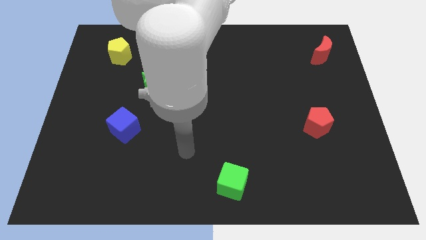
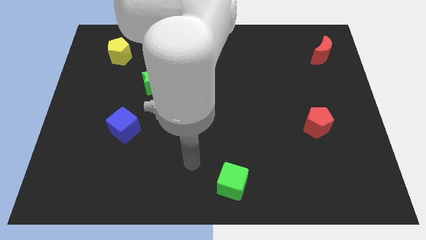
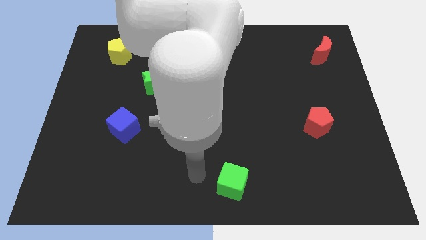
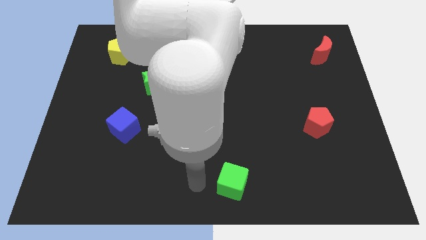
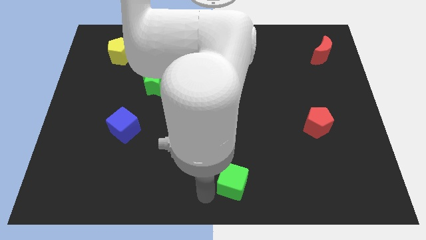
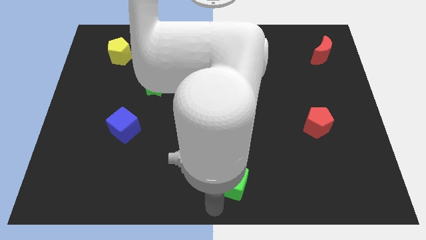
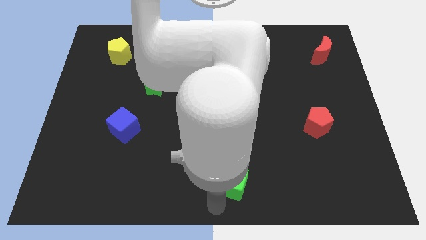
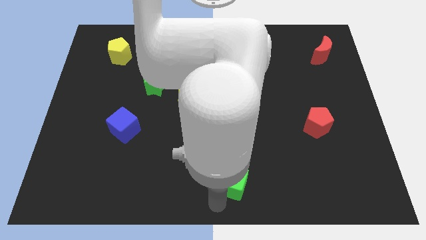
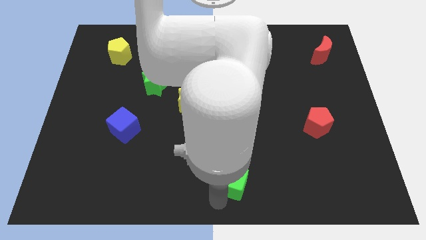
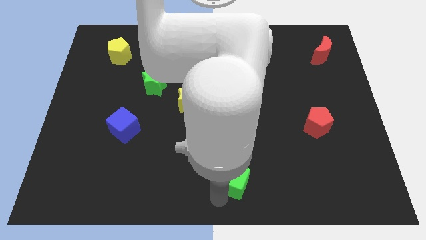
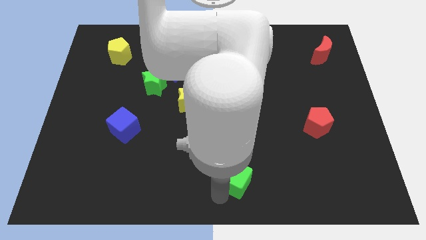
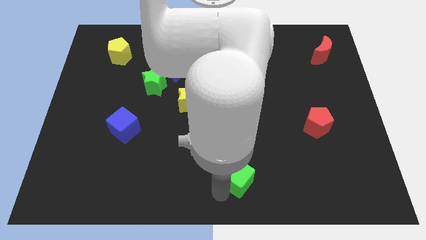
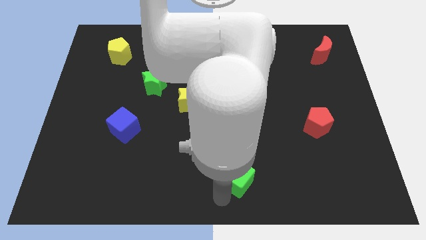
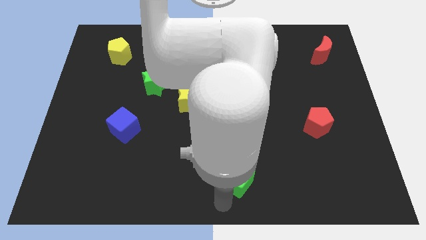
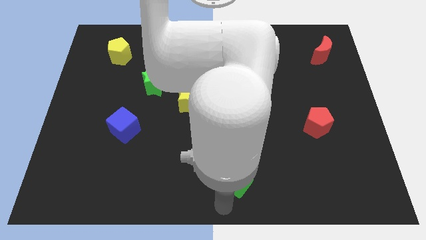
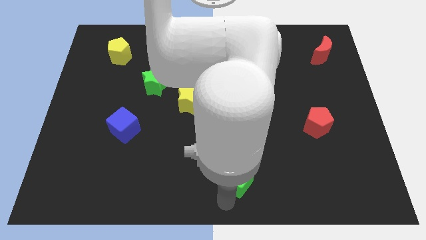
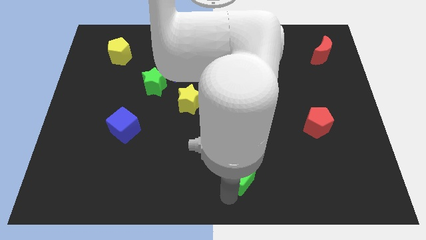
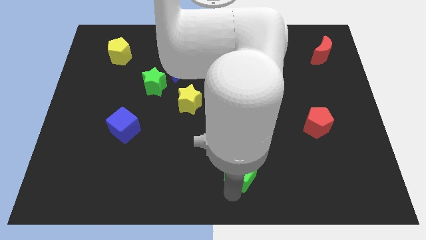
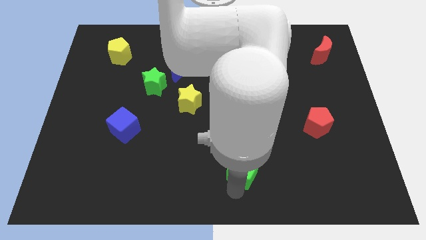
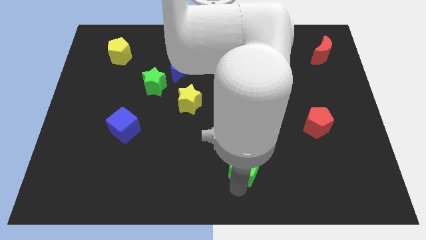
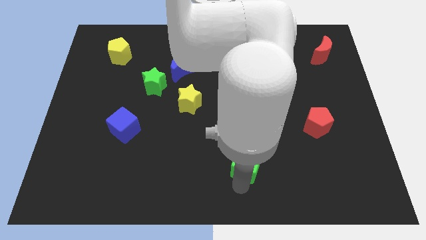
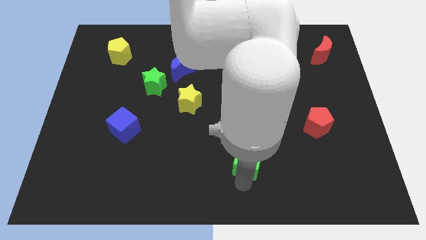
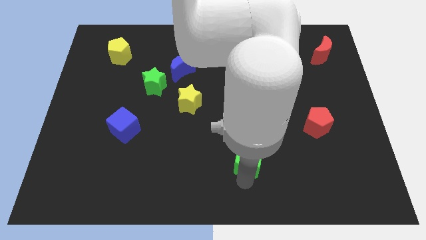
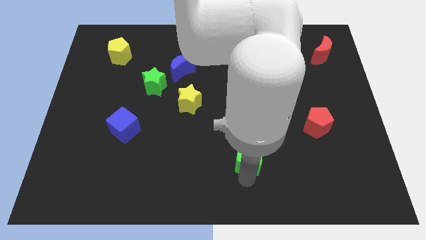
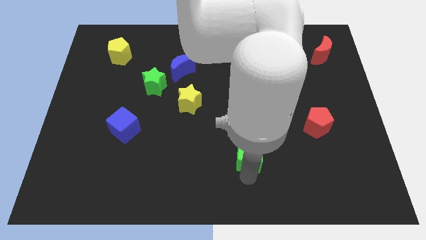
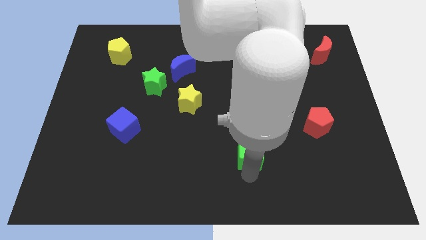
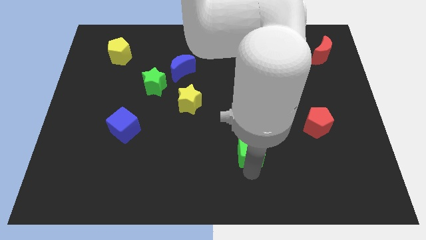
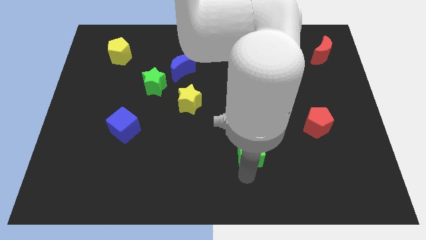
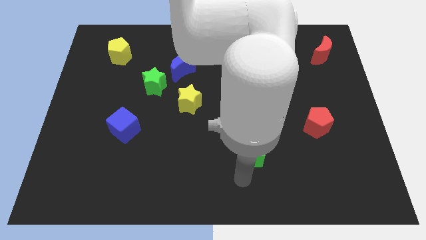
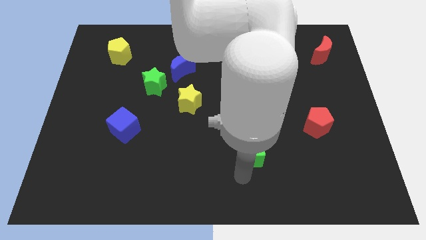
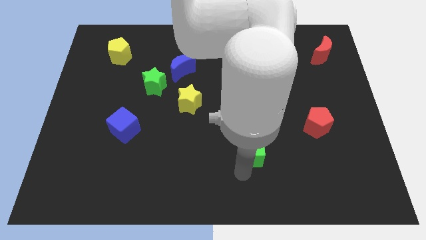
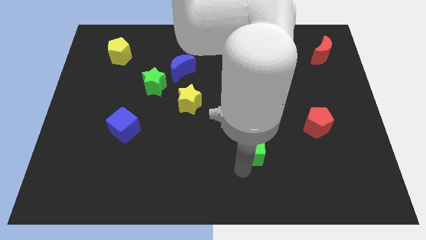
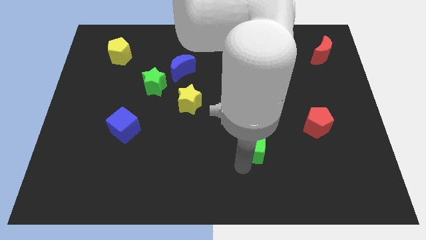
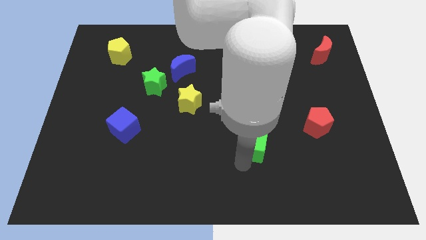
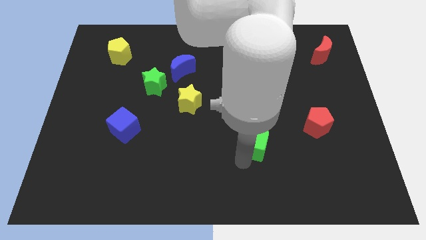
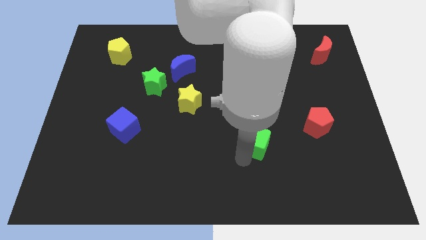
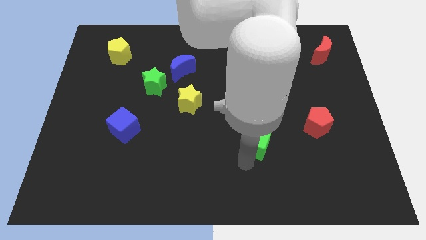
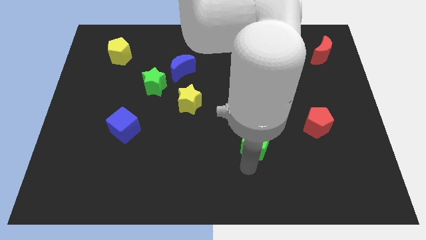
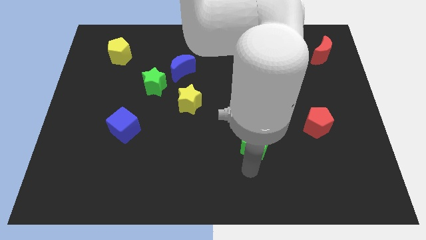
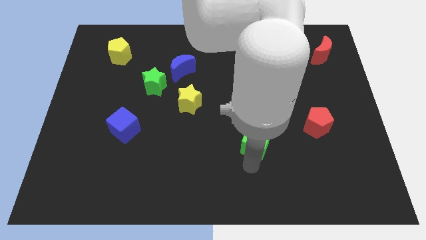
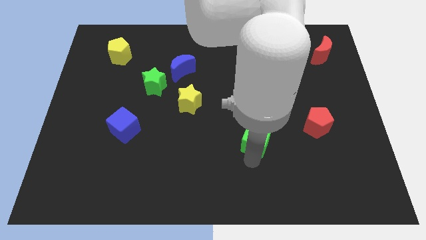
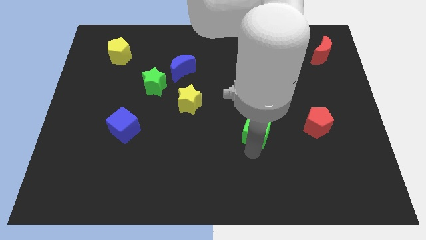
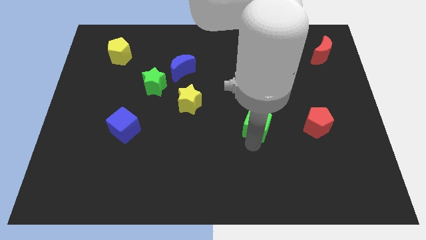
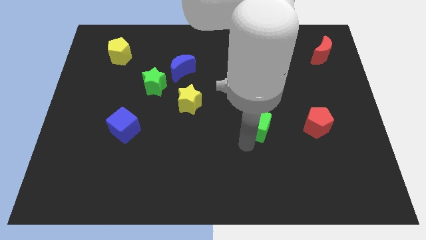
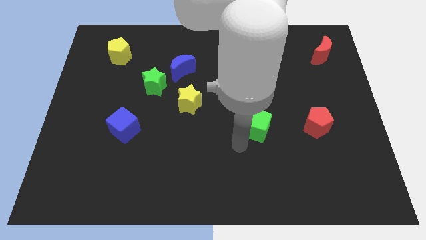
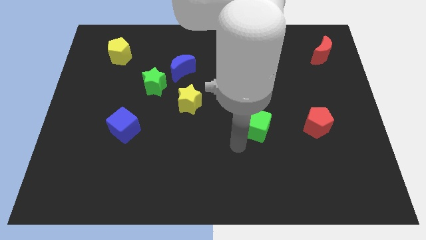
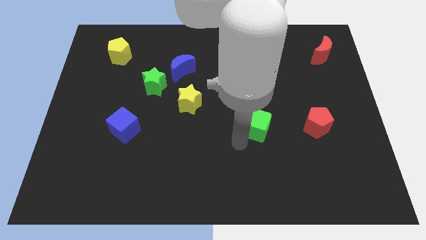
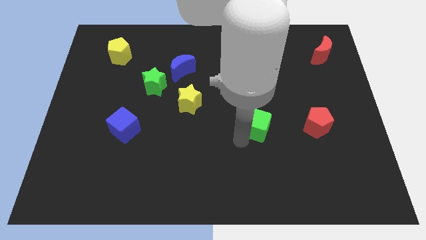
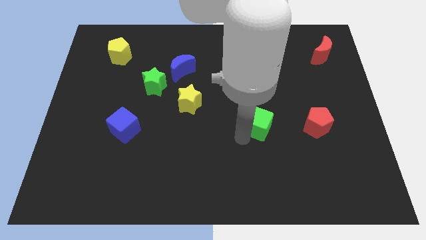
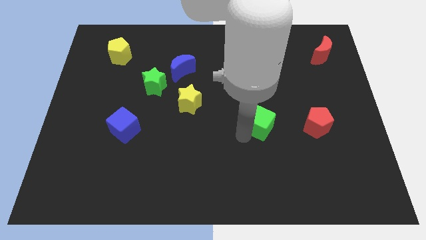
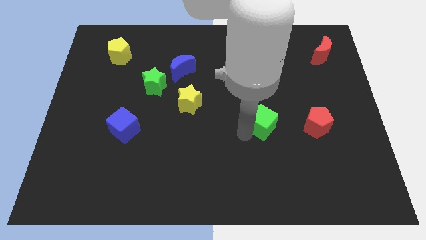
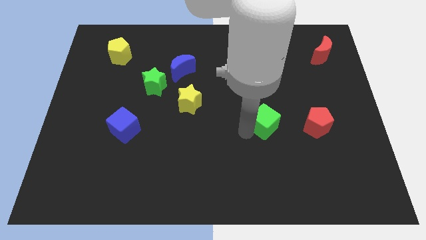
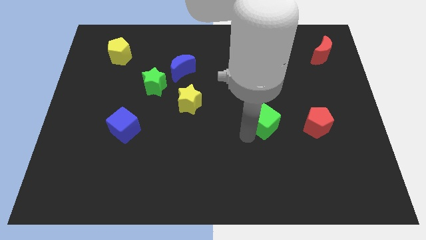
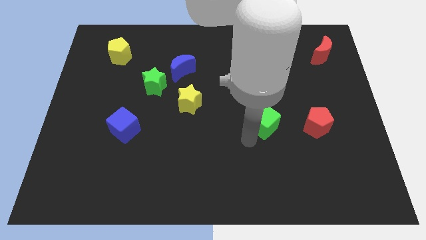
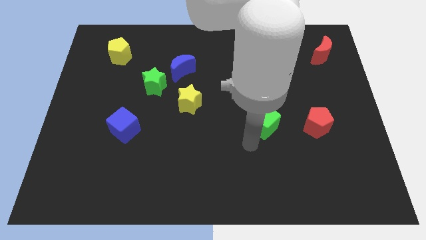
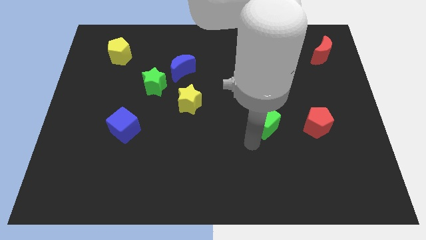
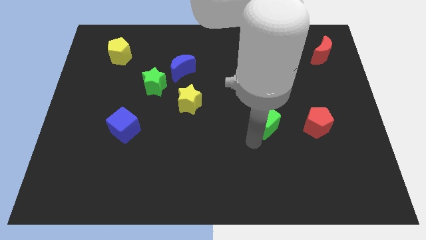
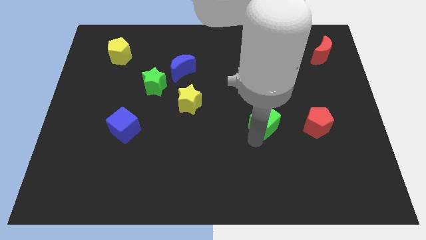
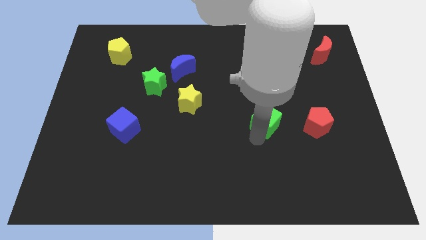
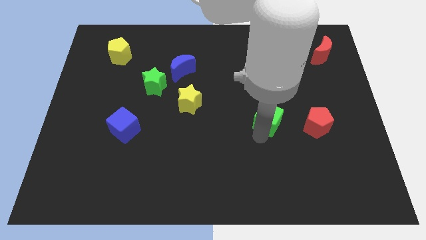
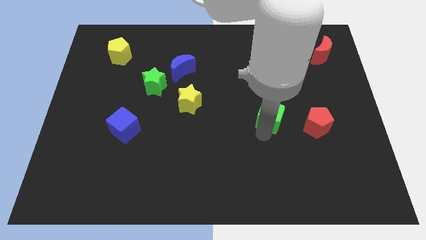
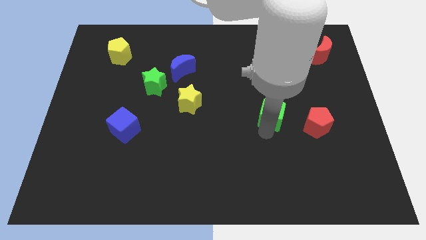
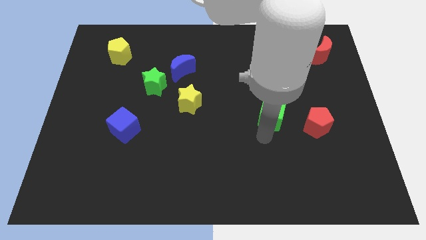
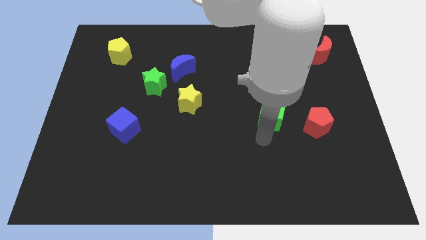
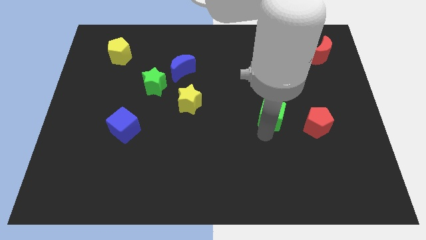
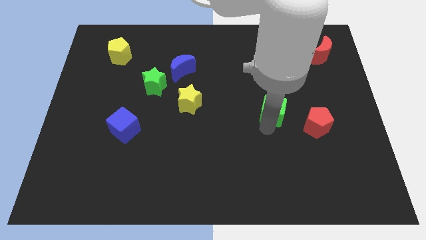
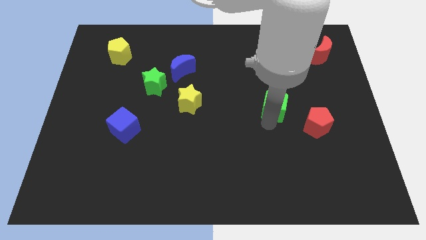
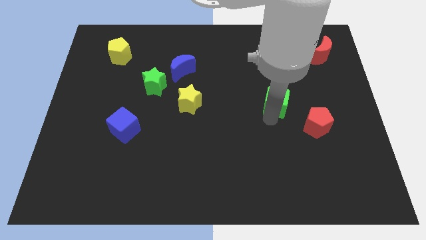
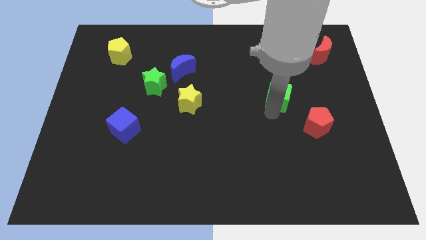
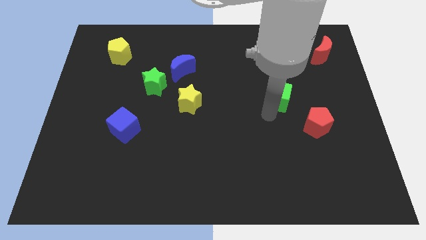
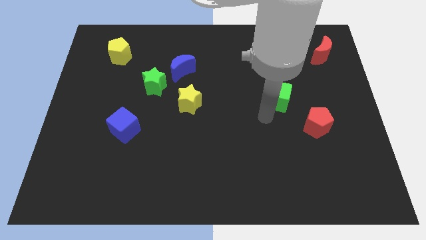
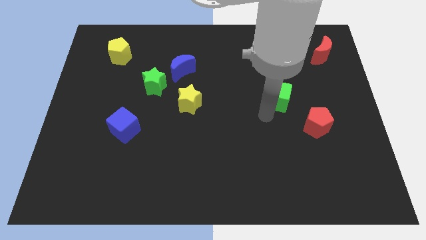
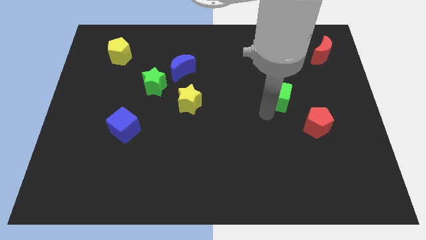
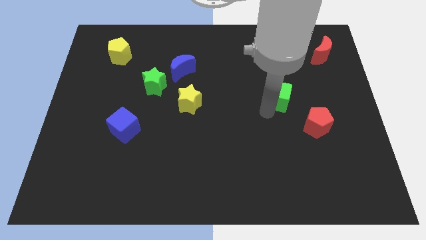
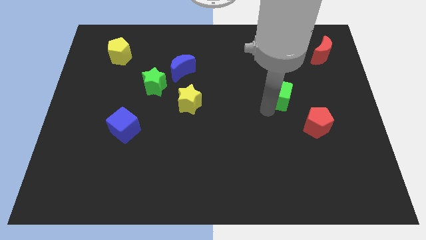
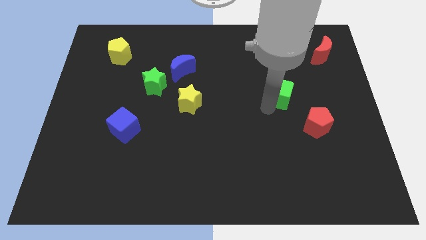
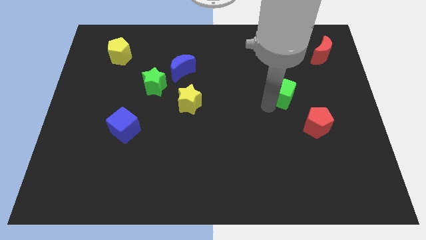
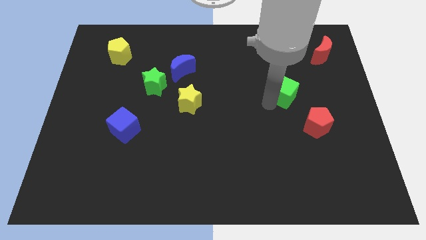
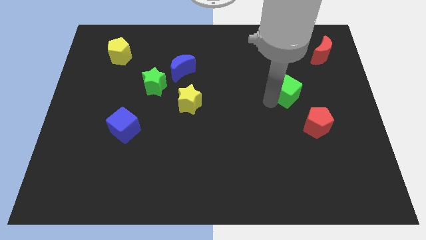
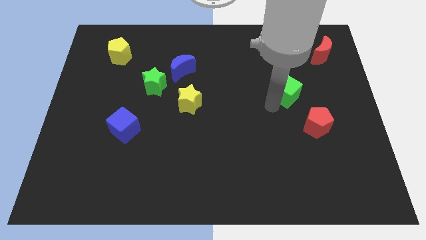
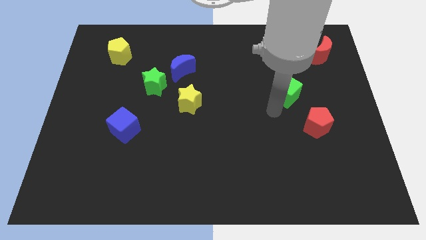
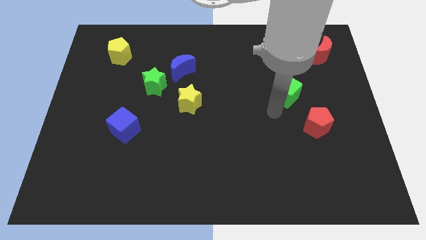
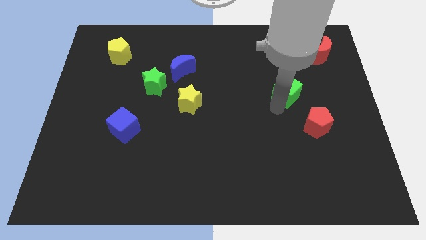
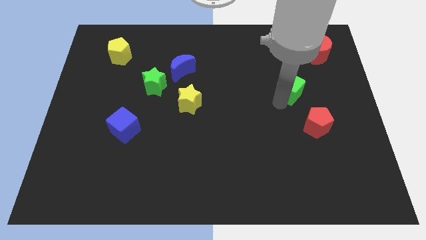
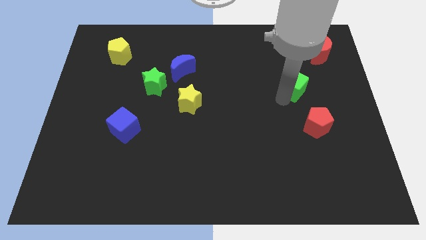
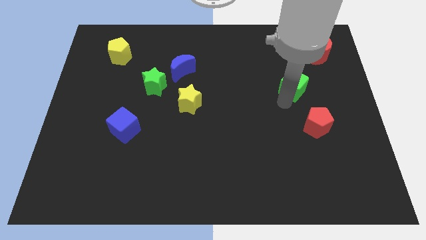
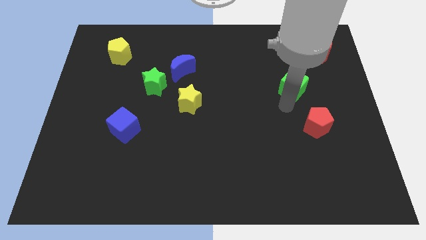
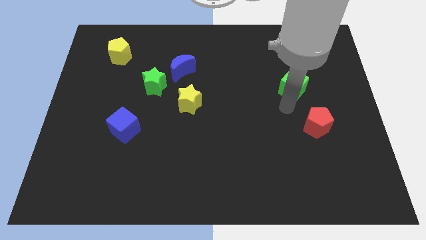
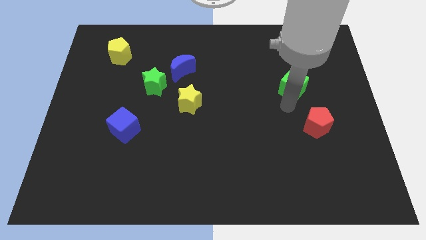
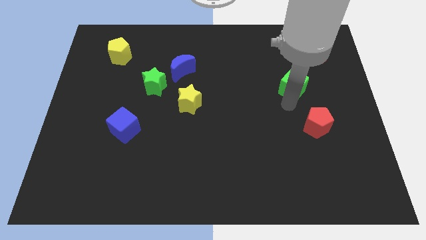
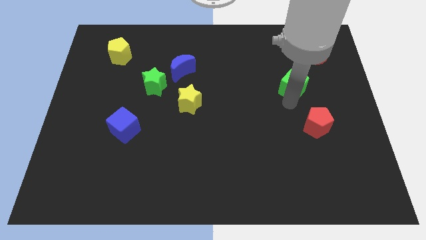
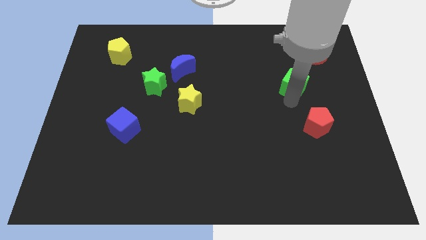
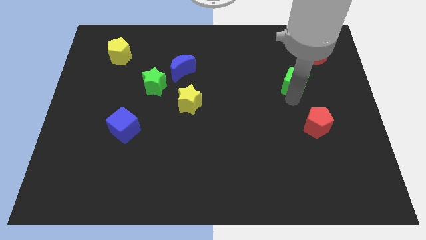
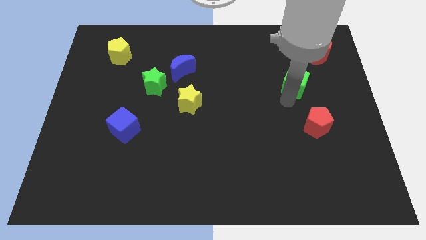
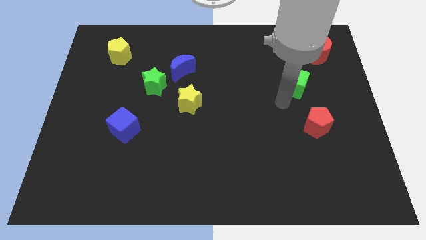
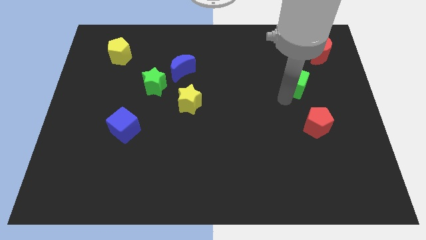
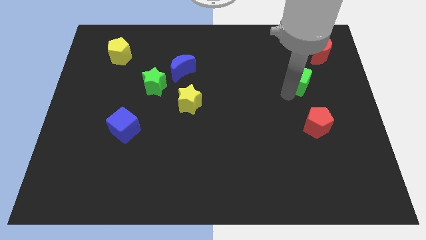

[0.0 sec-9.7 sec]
push the green cube diagonally down and to the left of the red moon
